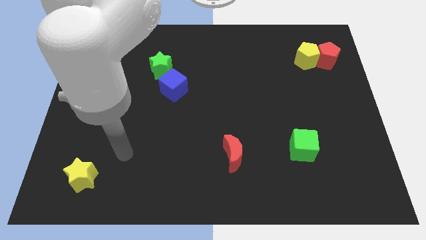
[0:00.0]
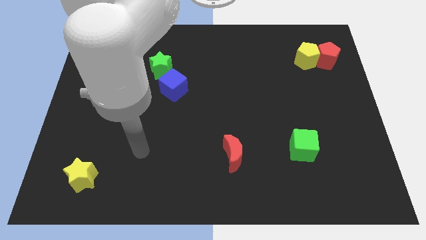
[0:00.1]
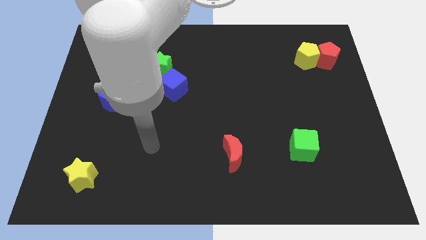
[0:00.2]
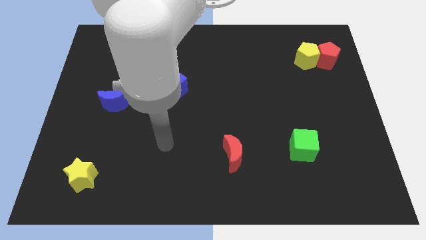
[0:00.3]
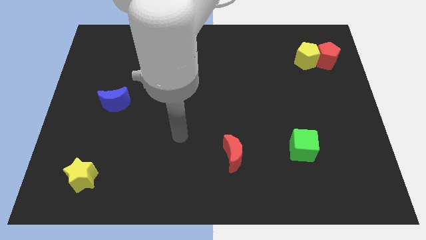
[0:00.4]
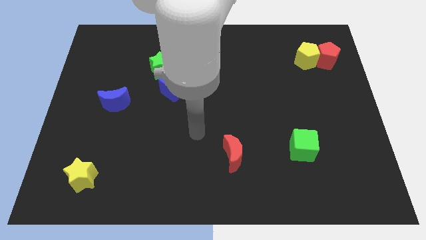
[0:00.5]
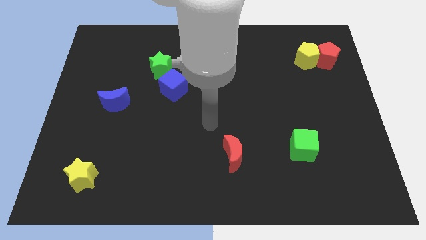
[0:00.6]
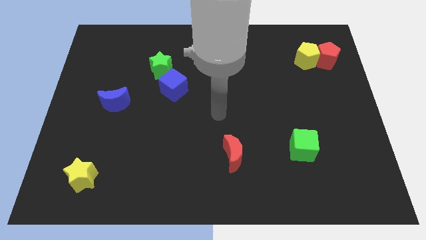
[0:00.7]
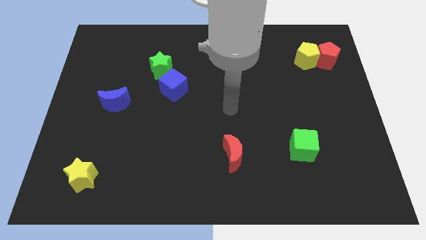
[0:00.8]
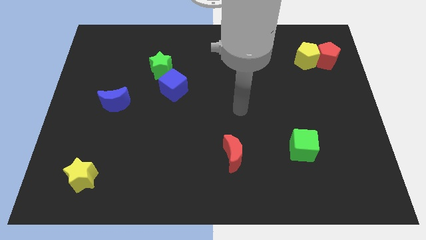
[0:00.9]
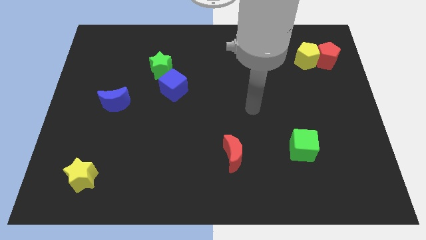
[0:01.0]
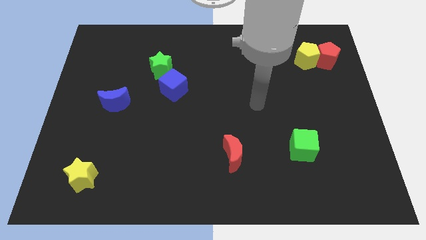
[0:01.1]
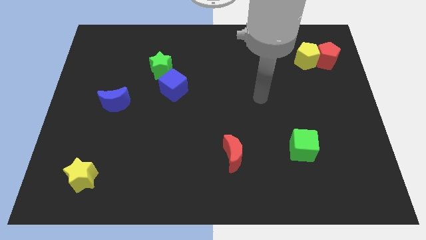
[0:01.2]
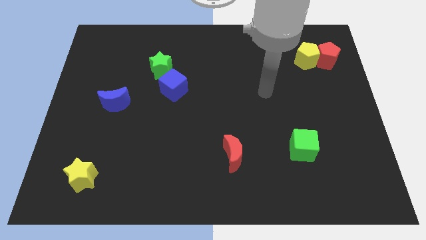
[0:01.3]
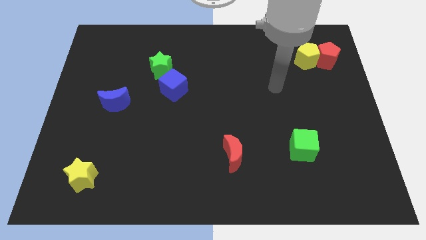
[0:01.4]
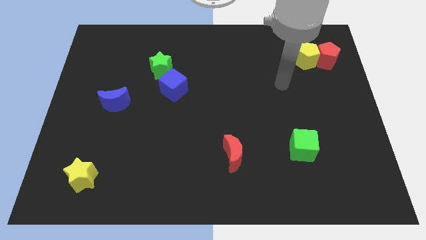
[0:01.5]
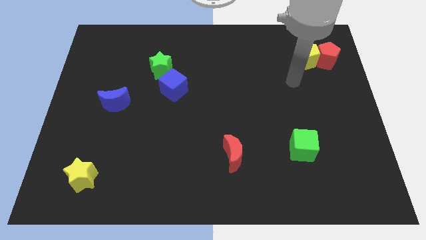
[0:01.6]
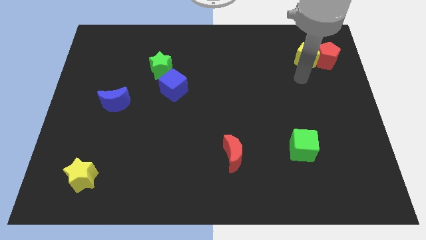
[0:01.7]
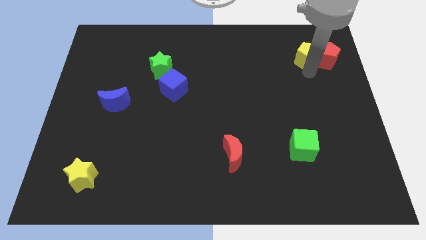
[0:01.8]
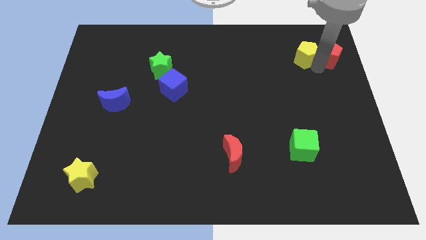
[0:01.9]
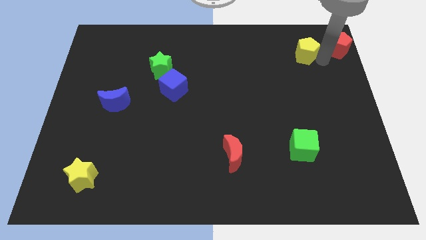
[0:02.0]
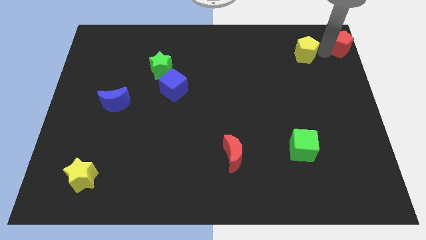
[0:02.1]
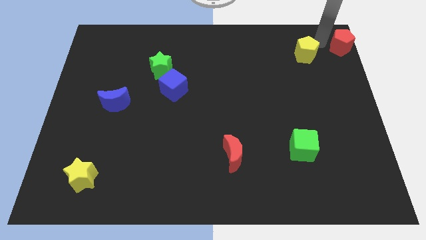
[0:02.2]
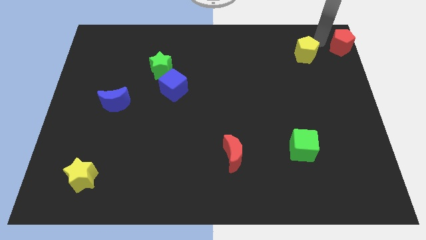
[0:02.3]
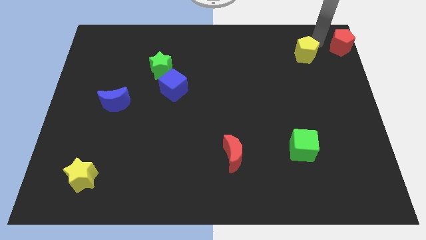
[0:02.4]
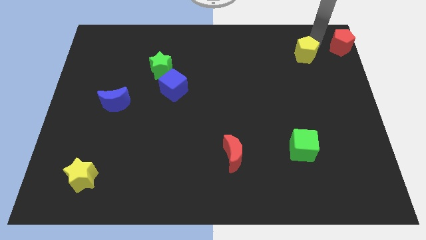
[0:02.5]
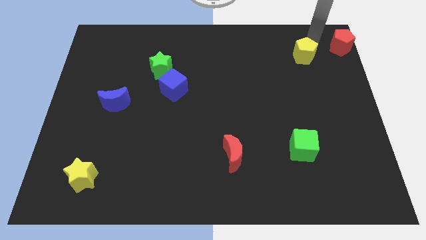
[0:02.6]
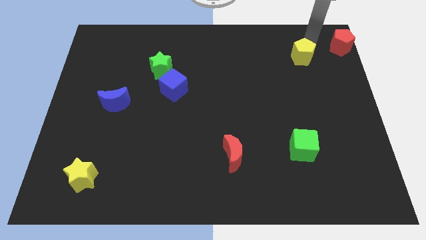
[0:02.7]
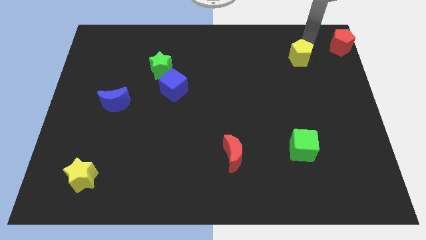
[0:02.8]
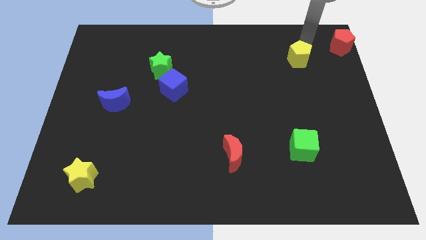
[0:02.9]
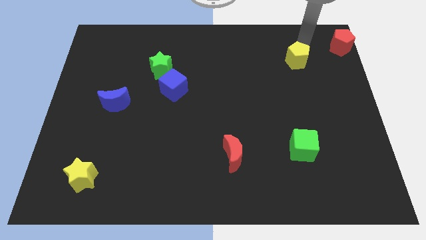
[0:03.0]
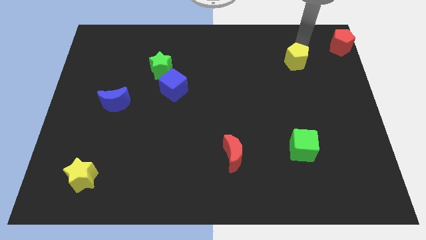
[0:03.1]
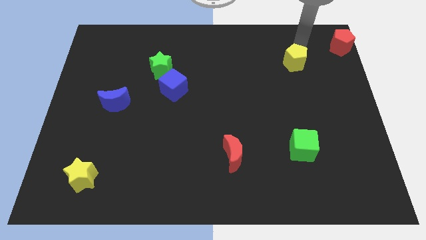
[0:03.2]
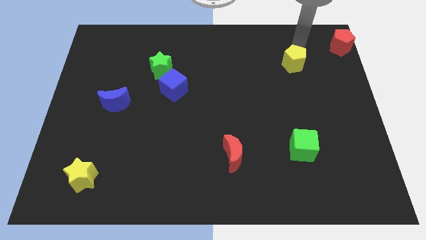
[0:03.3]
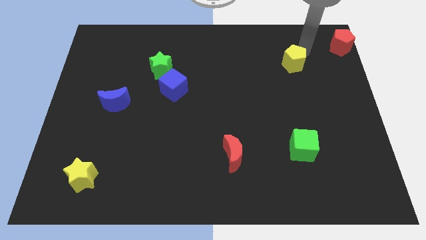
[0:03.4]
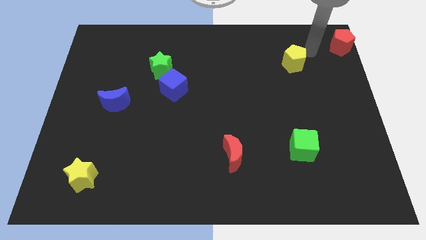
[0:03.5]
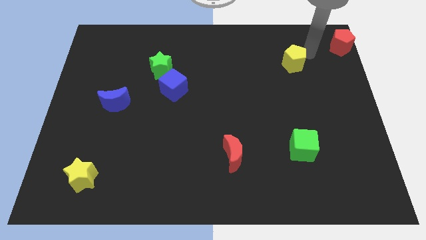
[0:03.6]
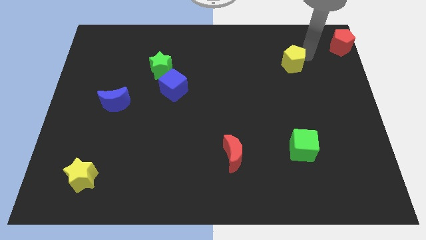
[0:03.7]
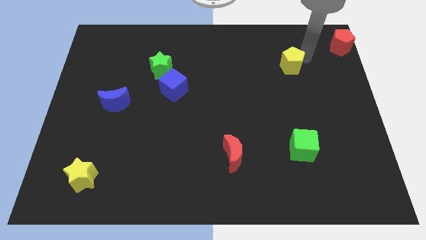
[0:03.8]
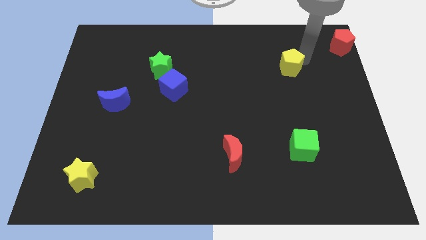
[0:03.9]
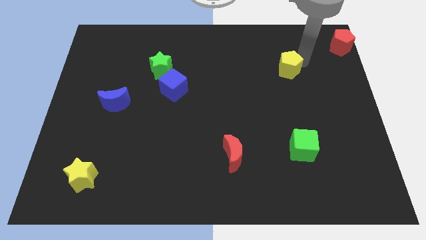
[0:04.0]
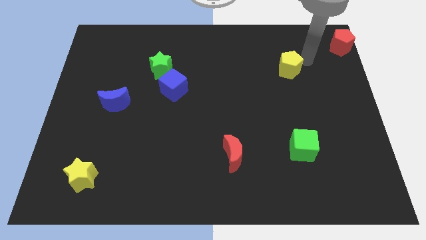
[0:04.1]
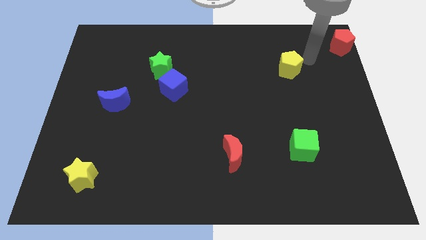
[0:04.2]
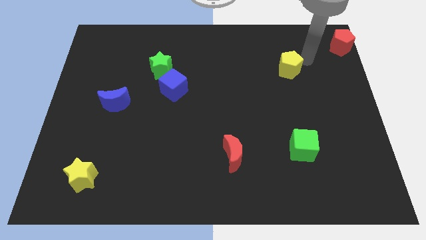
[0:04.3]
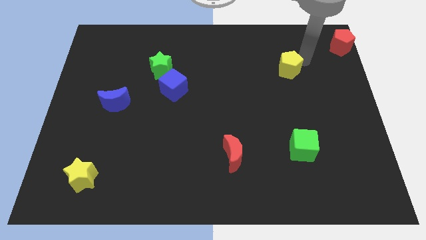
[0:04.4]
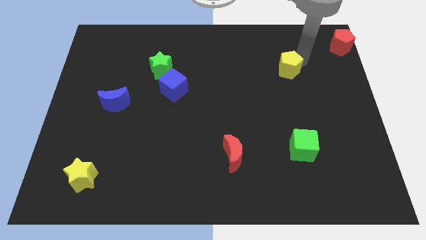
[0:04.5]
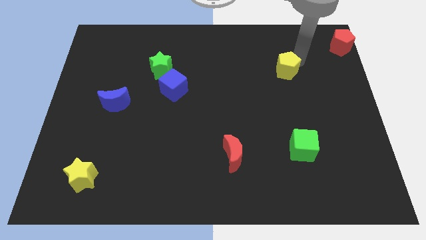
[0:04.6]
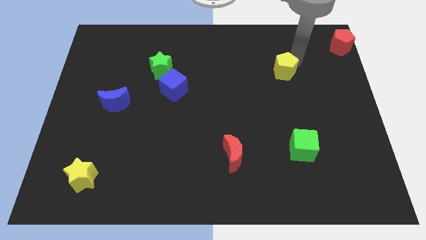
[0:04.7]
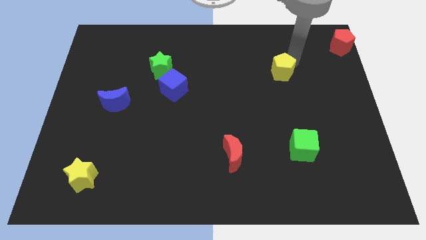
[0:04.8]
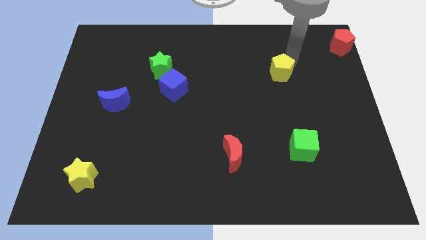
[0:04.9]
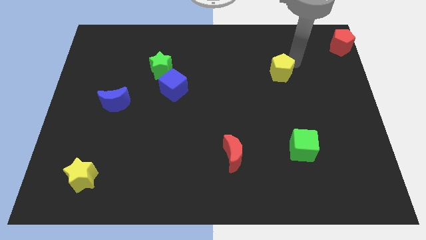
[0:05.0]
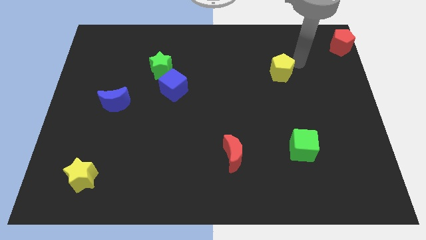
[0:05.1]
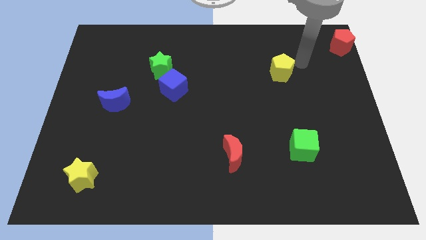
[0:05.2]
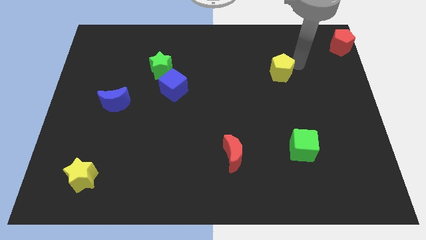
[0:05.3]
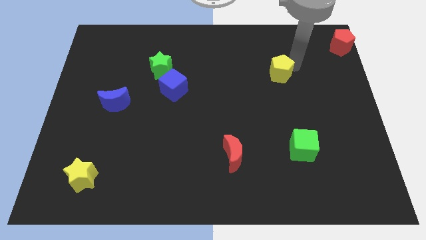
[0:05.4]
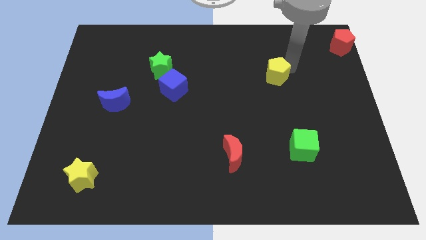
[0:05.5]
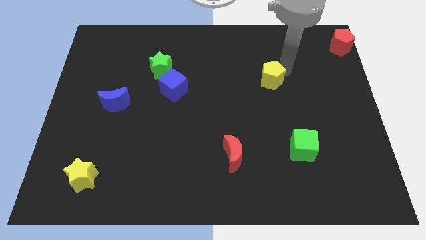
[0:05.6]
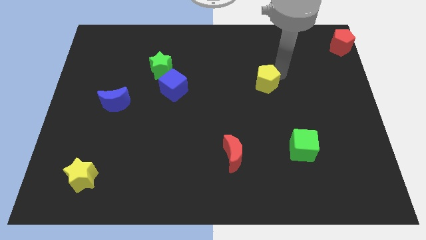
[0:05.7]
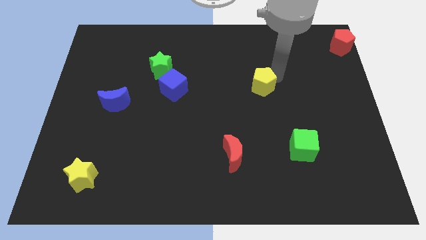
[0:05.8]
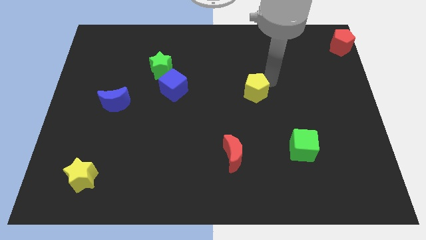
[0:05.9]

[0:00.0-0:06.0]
push the yellow pentagon to the center
